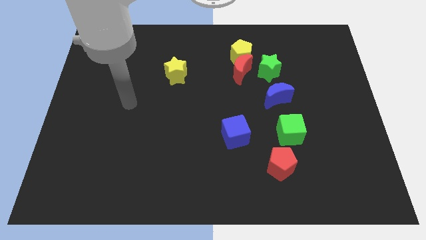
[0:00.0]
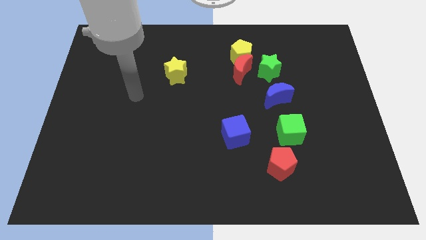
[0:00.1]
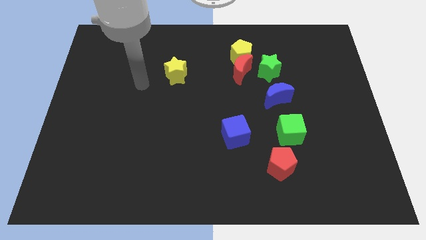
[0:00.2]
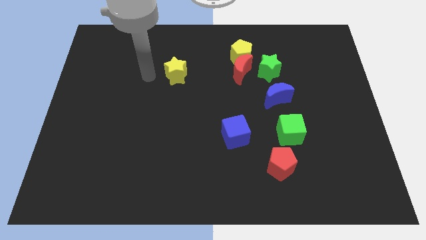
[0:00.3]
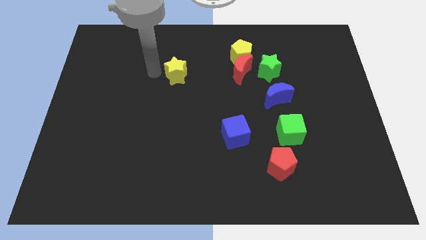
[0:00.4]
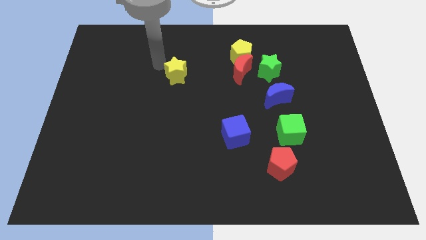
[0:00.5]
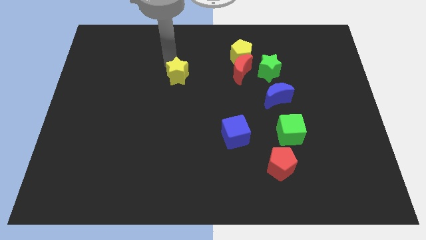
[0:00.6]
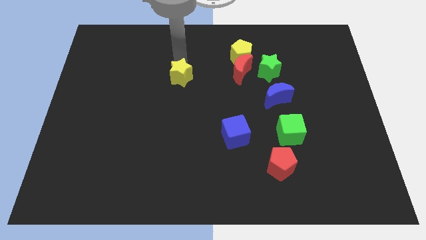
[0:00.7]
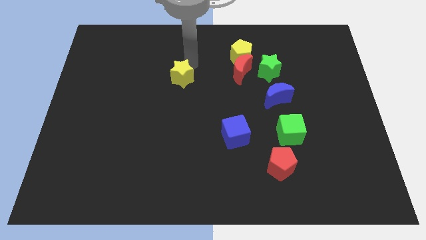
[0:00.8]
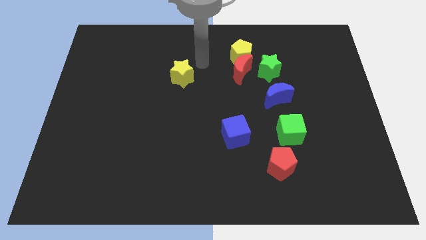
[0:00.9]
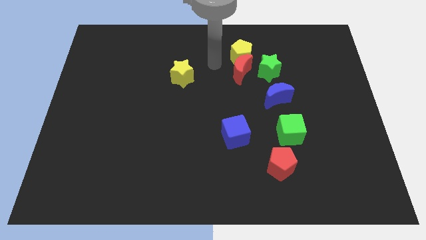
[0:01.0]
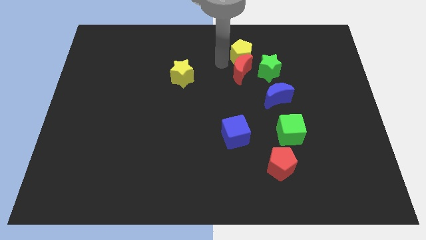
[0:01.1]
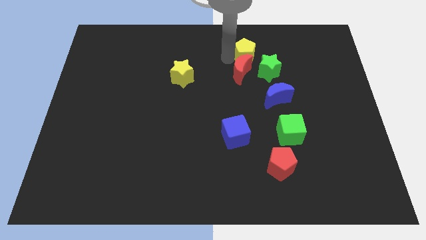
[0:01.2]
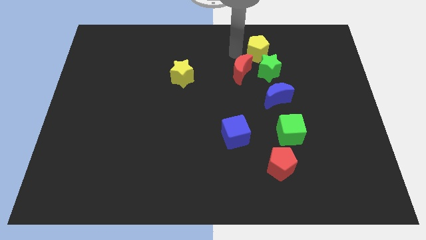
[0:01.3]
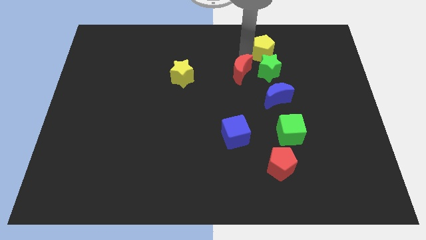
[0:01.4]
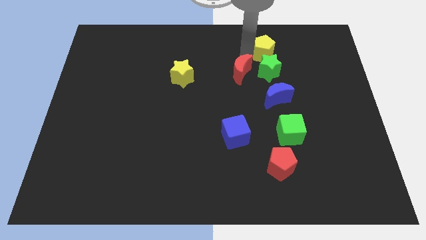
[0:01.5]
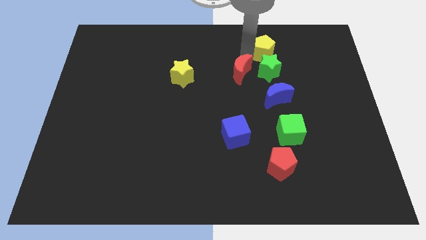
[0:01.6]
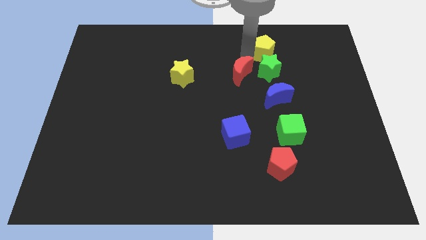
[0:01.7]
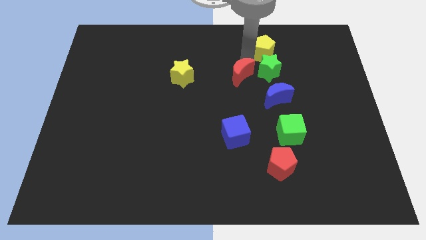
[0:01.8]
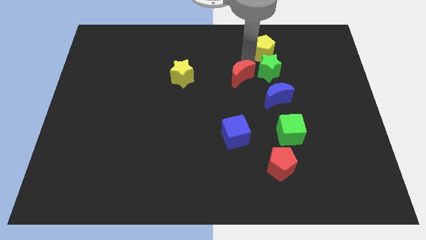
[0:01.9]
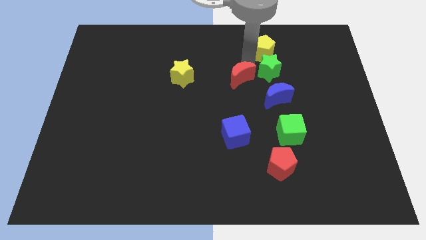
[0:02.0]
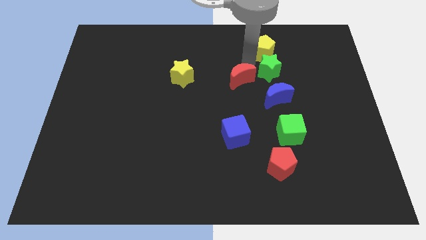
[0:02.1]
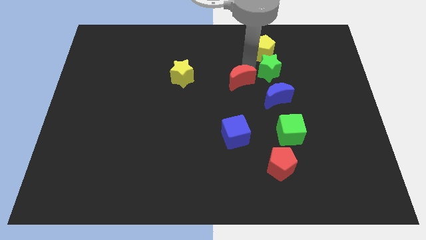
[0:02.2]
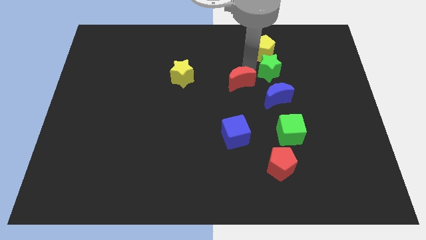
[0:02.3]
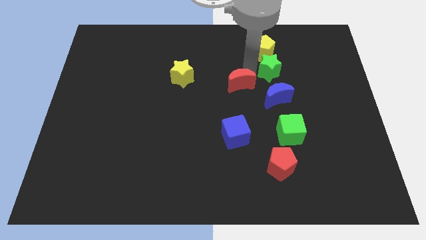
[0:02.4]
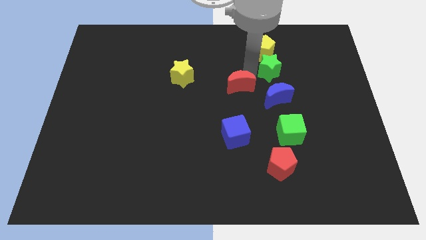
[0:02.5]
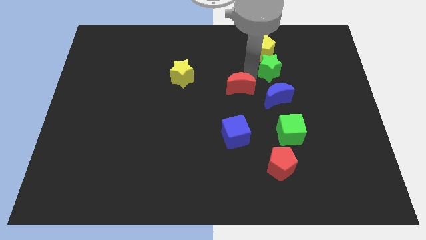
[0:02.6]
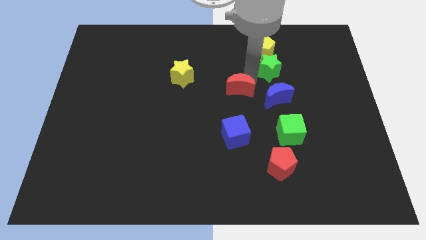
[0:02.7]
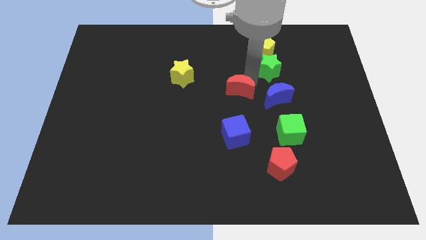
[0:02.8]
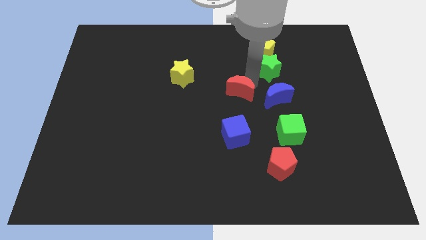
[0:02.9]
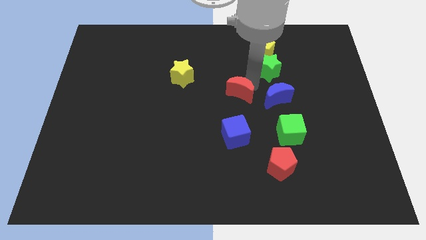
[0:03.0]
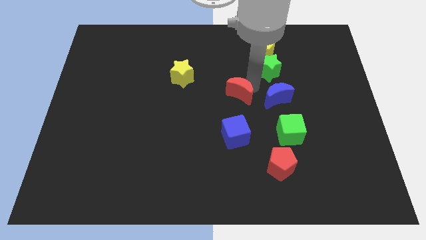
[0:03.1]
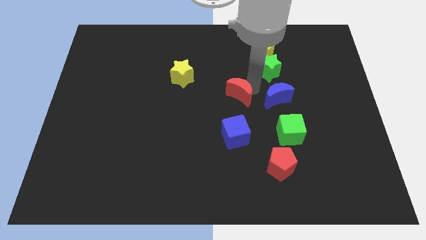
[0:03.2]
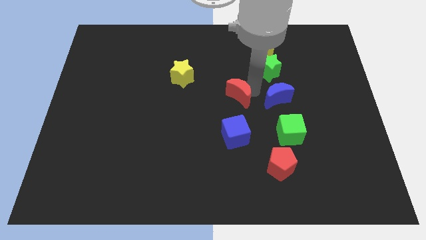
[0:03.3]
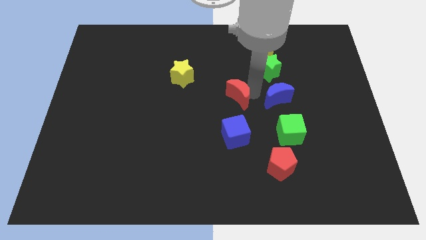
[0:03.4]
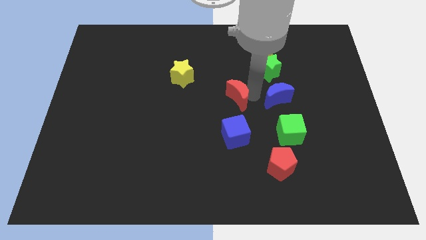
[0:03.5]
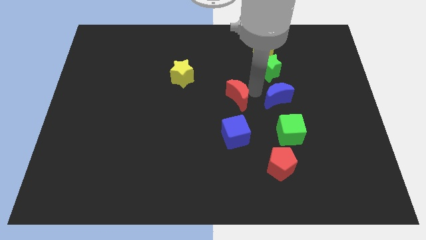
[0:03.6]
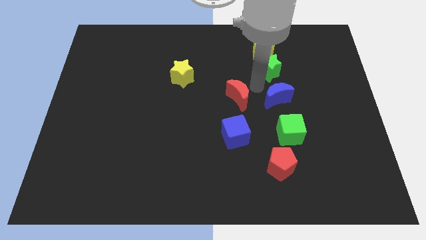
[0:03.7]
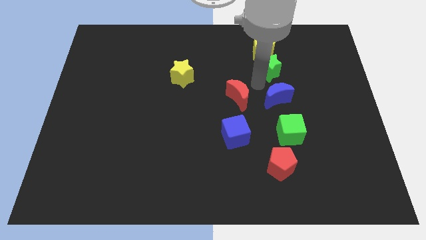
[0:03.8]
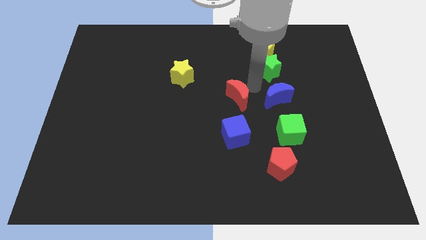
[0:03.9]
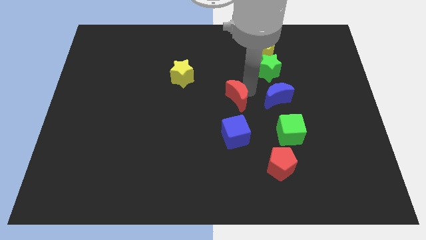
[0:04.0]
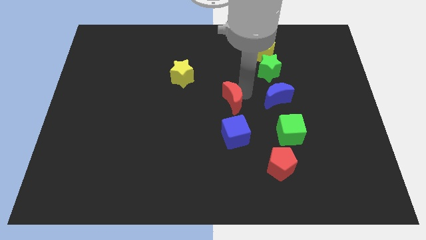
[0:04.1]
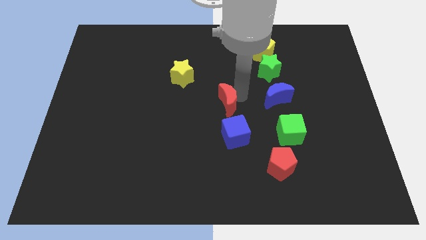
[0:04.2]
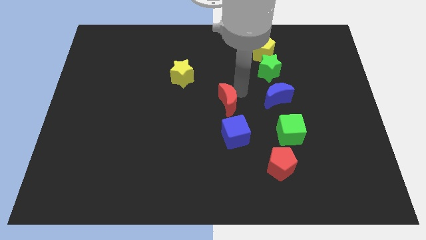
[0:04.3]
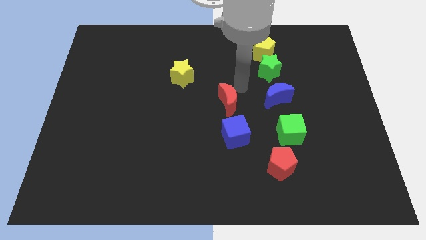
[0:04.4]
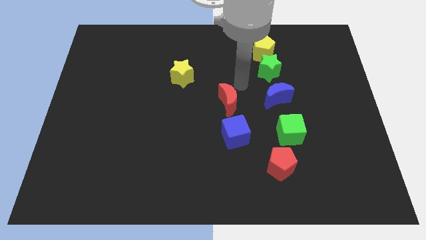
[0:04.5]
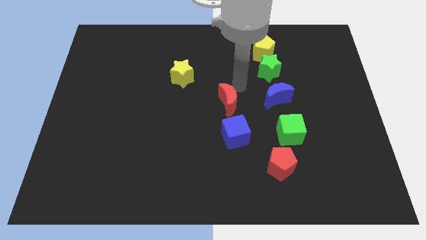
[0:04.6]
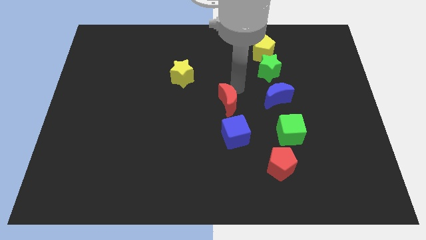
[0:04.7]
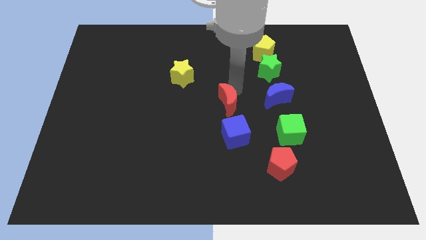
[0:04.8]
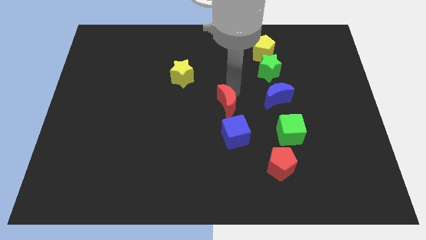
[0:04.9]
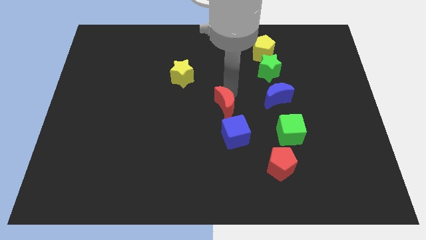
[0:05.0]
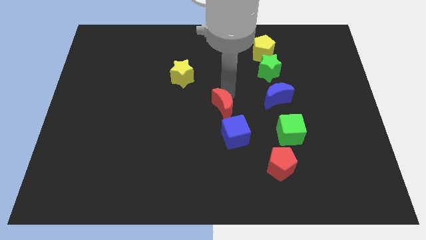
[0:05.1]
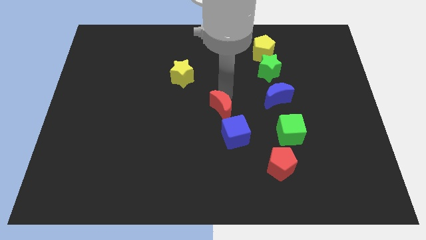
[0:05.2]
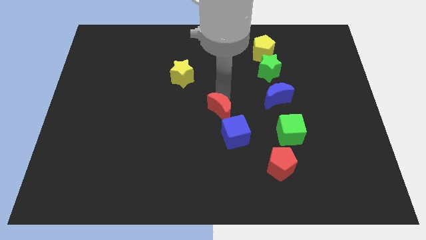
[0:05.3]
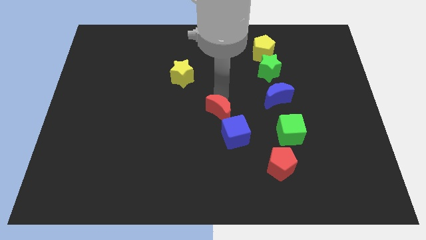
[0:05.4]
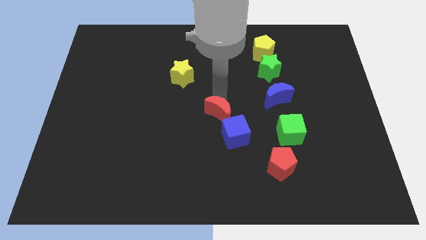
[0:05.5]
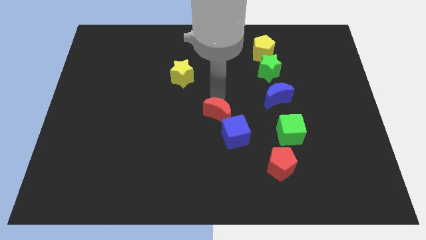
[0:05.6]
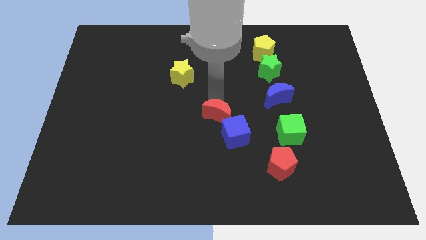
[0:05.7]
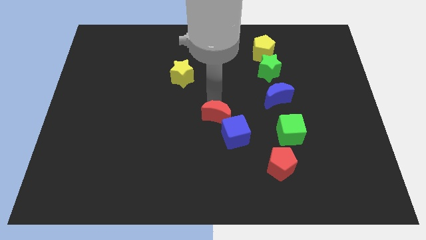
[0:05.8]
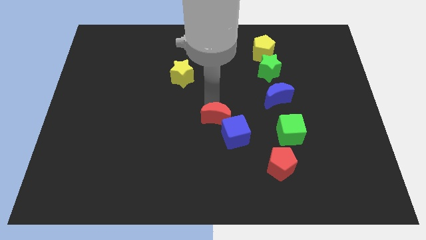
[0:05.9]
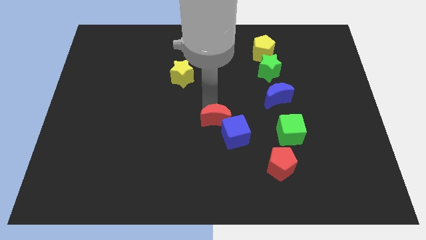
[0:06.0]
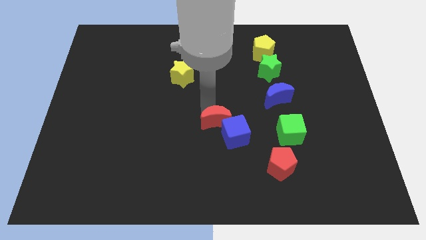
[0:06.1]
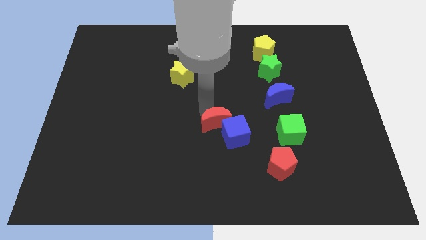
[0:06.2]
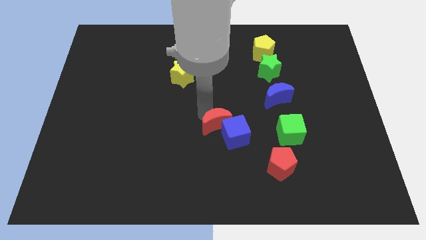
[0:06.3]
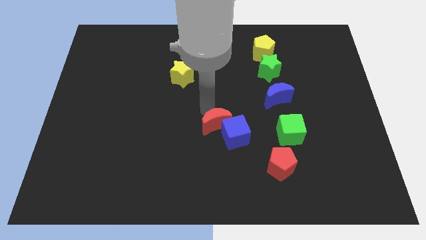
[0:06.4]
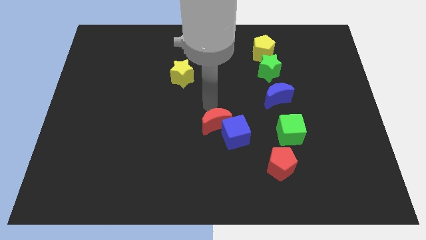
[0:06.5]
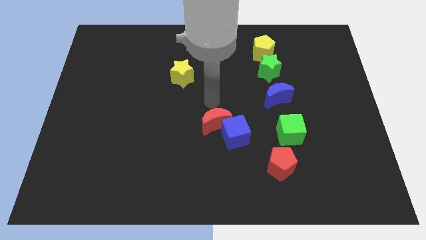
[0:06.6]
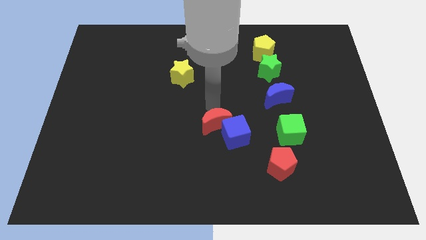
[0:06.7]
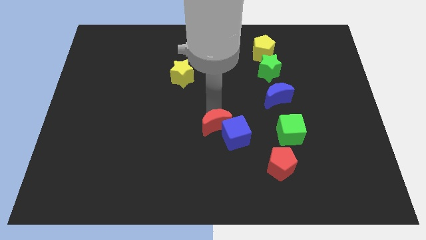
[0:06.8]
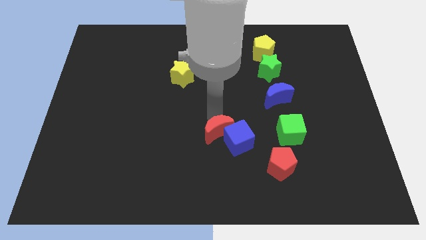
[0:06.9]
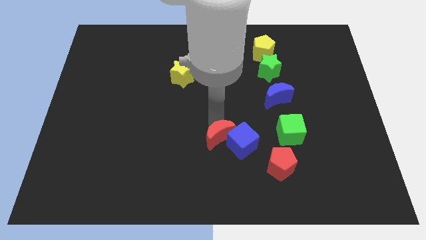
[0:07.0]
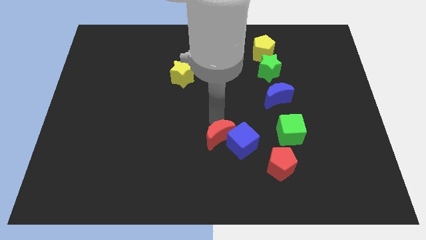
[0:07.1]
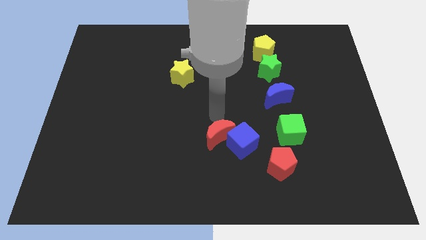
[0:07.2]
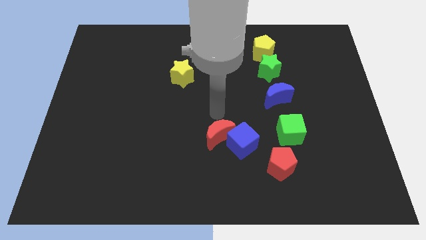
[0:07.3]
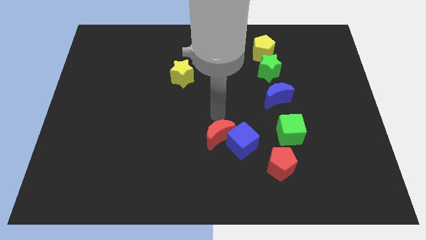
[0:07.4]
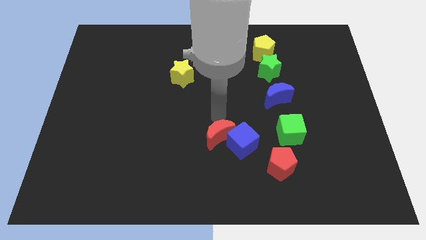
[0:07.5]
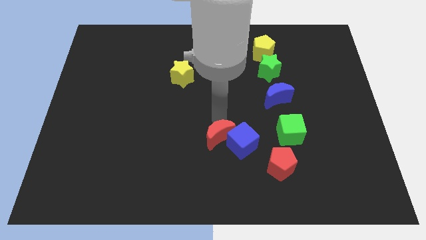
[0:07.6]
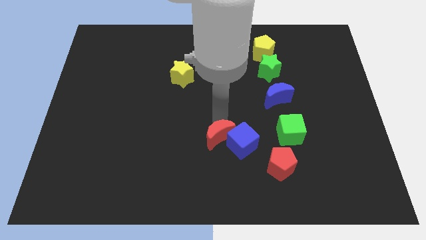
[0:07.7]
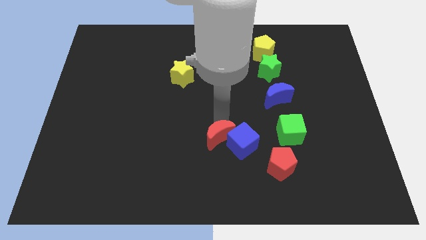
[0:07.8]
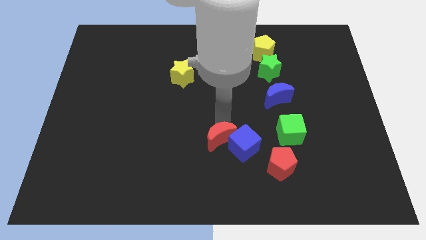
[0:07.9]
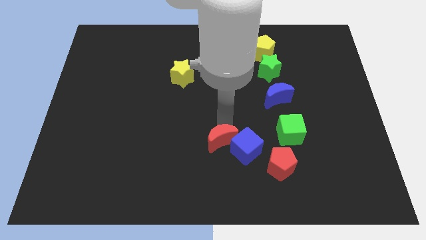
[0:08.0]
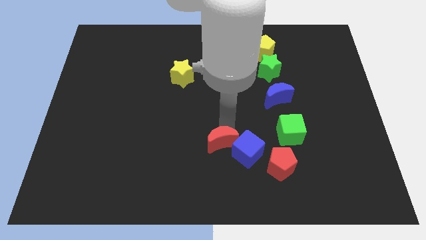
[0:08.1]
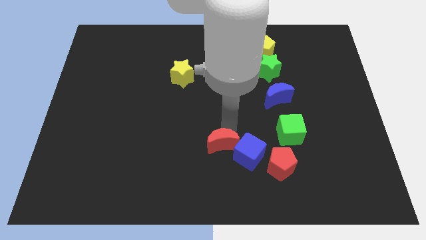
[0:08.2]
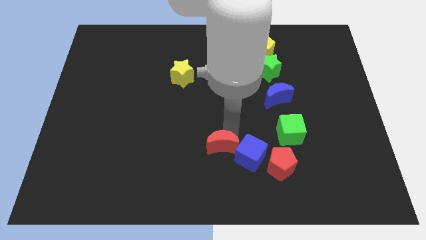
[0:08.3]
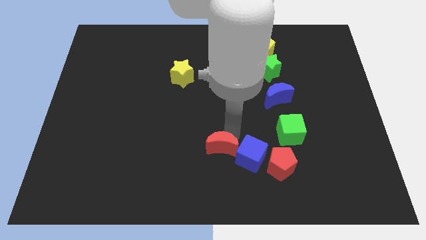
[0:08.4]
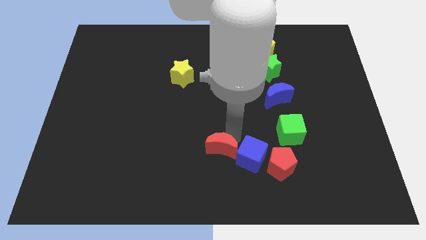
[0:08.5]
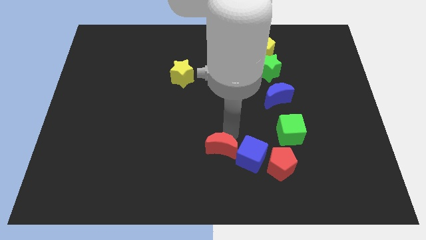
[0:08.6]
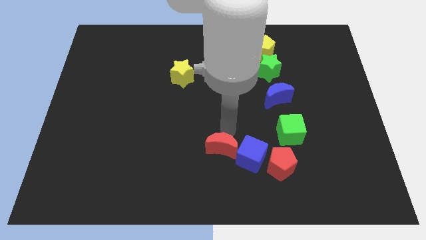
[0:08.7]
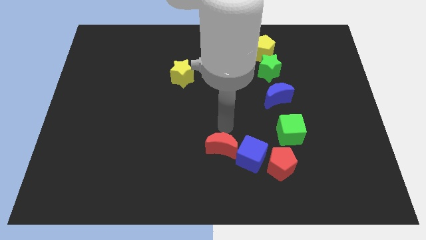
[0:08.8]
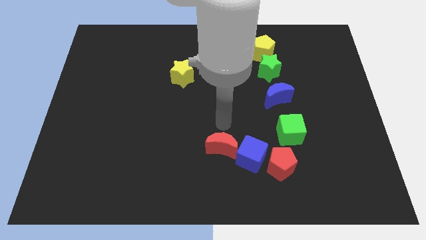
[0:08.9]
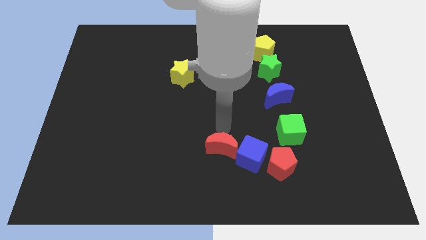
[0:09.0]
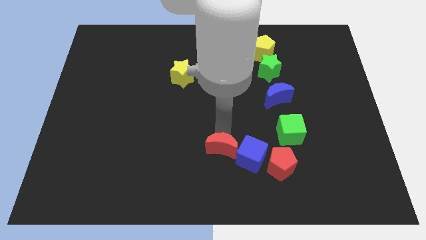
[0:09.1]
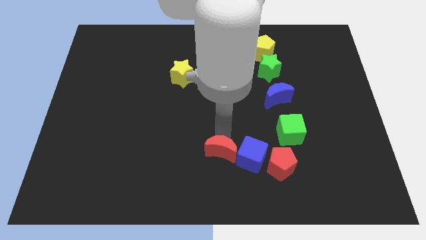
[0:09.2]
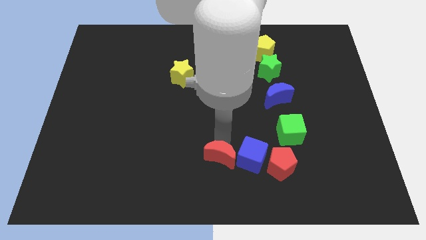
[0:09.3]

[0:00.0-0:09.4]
slide the red moon to the bottom side
